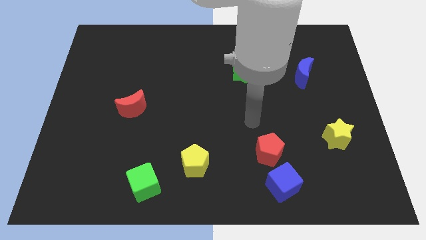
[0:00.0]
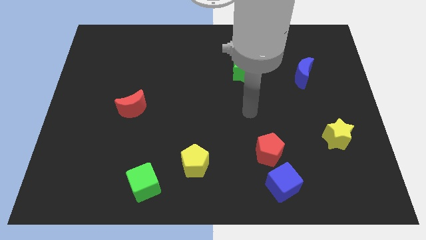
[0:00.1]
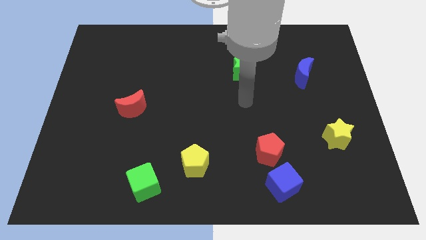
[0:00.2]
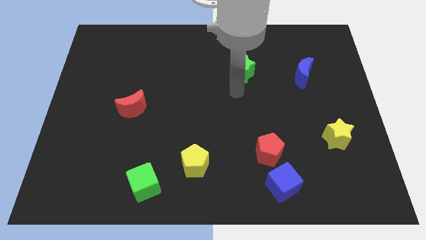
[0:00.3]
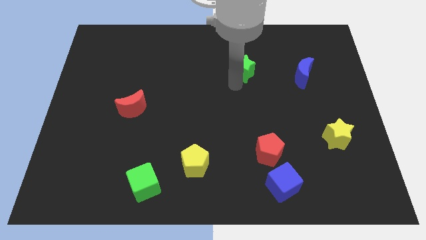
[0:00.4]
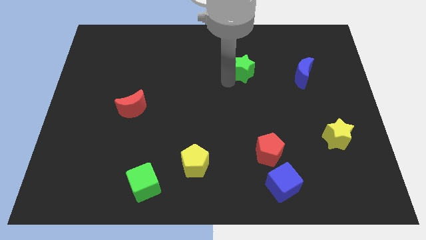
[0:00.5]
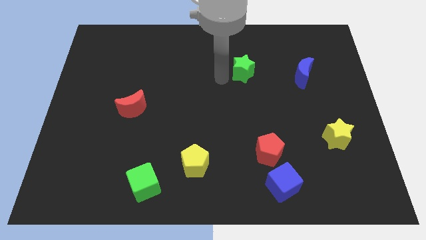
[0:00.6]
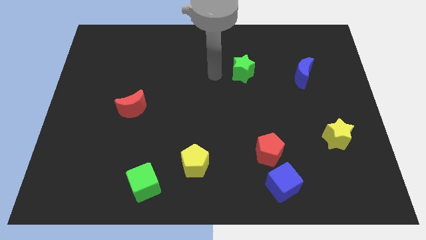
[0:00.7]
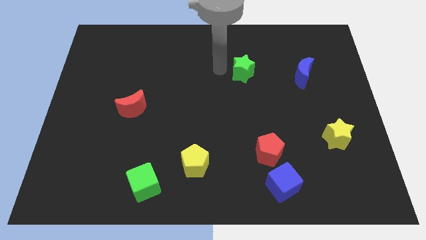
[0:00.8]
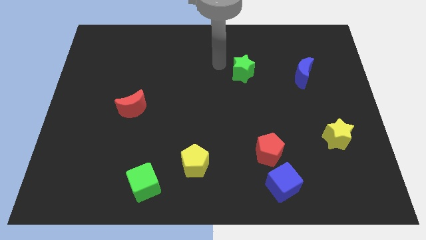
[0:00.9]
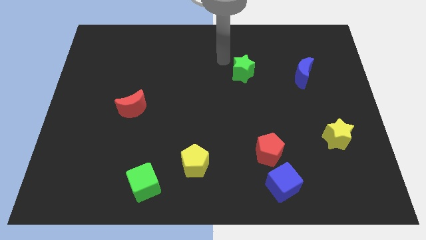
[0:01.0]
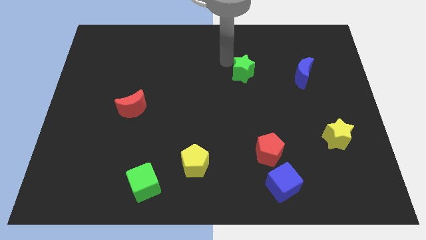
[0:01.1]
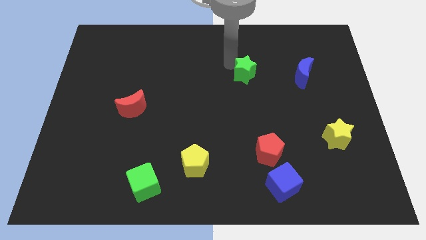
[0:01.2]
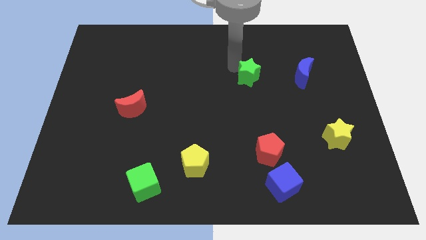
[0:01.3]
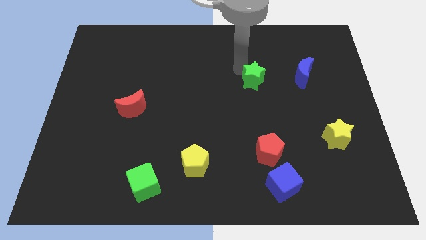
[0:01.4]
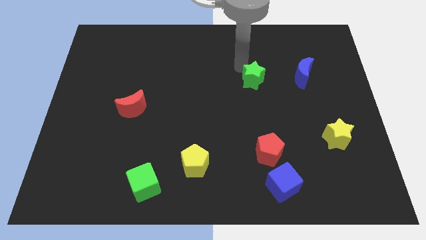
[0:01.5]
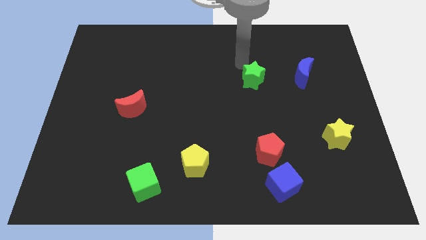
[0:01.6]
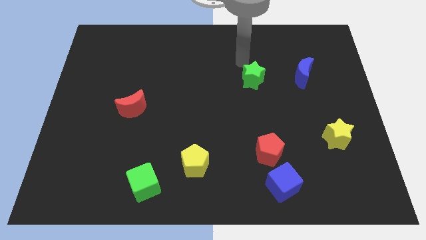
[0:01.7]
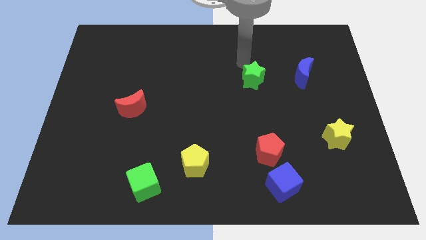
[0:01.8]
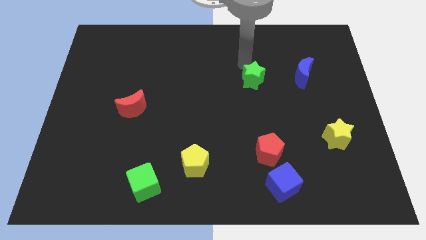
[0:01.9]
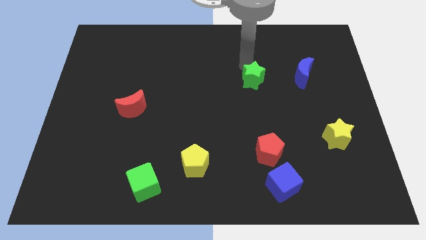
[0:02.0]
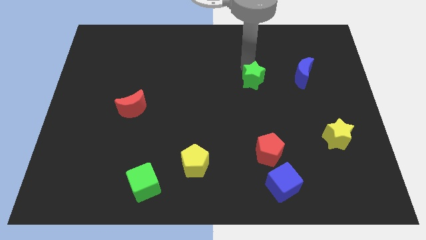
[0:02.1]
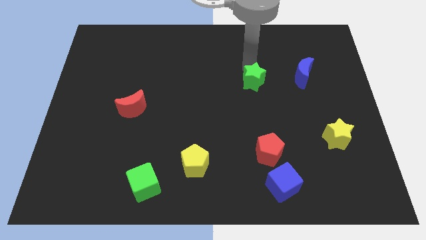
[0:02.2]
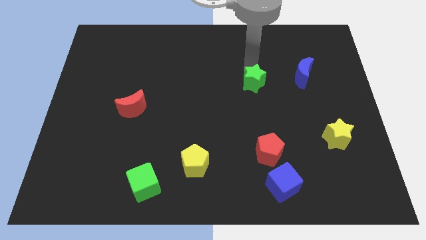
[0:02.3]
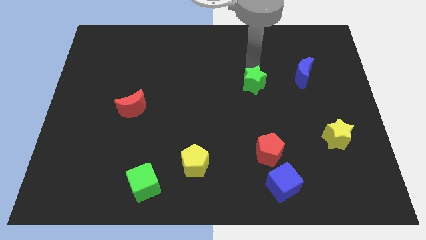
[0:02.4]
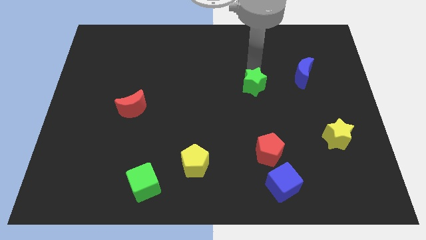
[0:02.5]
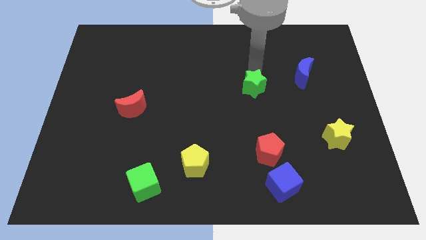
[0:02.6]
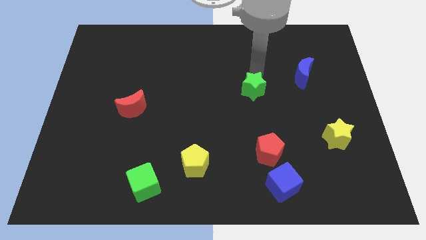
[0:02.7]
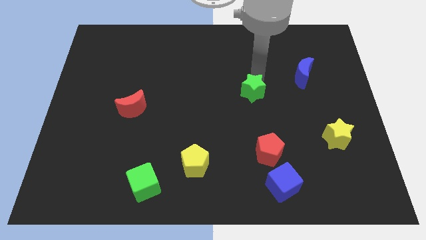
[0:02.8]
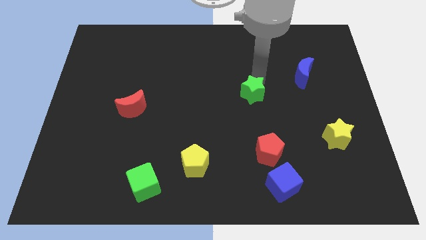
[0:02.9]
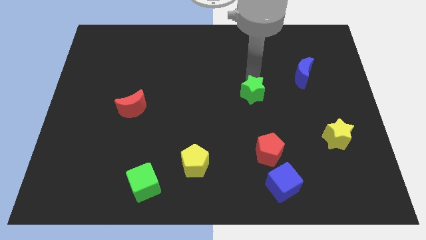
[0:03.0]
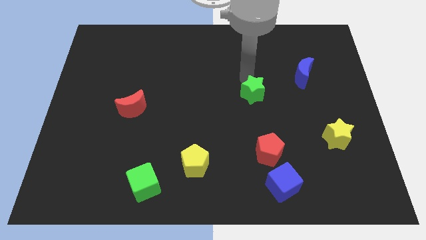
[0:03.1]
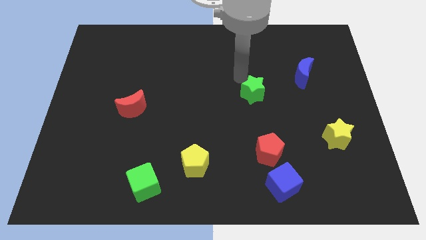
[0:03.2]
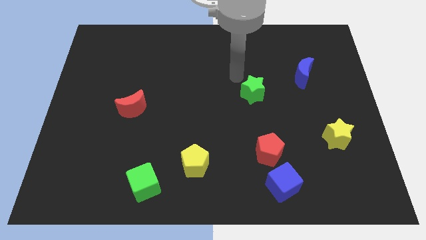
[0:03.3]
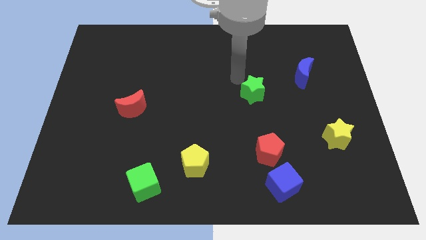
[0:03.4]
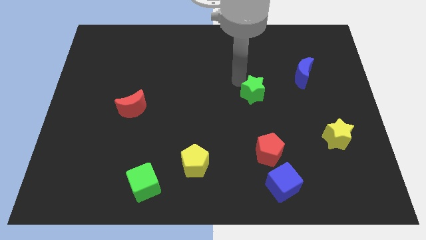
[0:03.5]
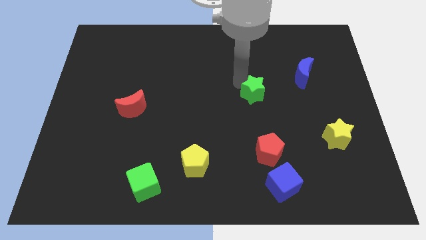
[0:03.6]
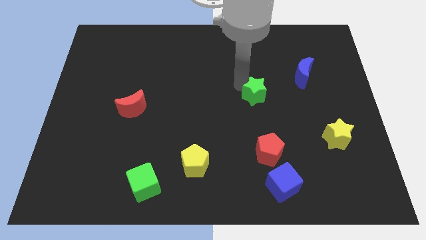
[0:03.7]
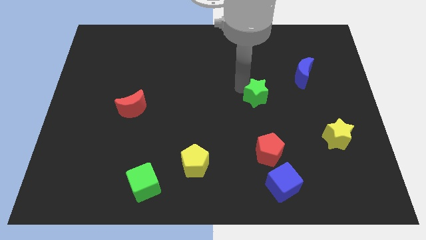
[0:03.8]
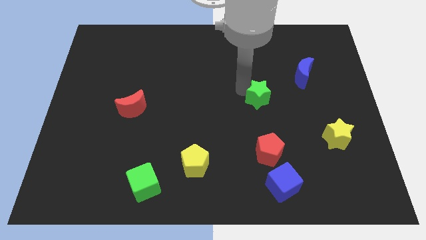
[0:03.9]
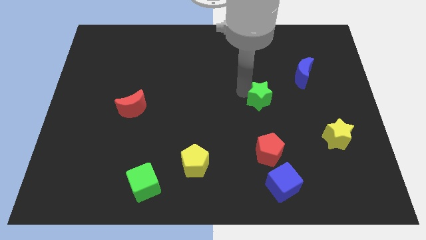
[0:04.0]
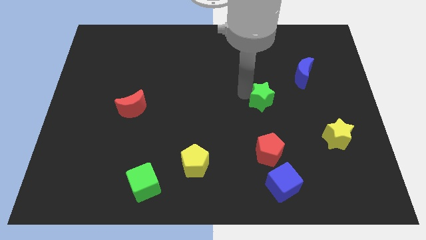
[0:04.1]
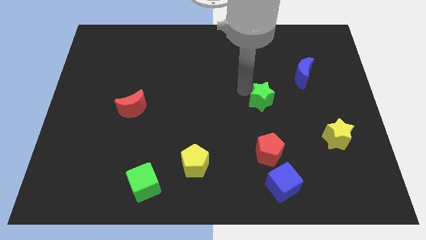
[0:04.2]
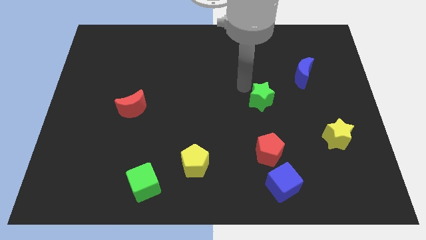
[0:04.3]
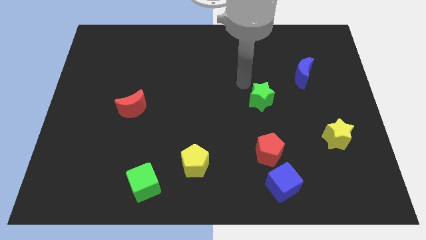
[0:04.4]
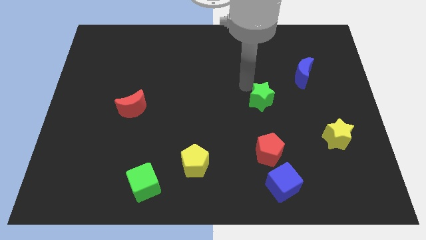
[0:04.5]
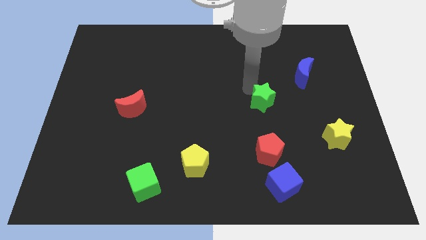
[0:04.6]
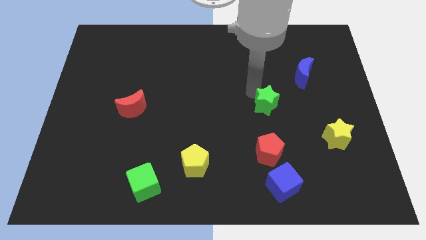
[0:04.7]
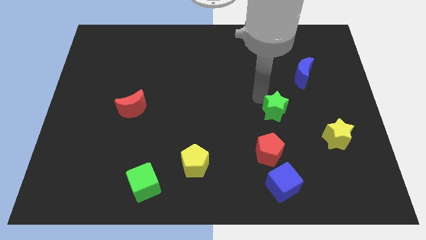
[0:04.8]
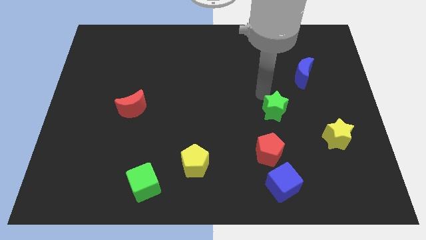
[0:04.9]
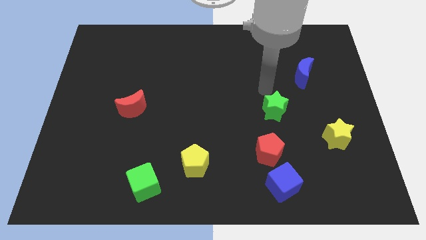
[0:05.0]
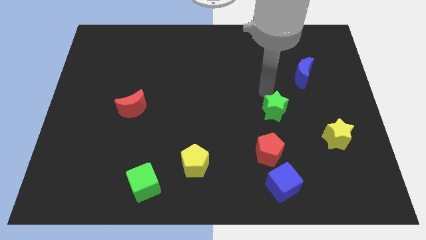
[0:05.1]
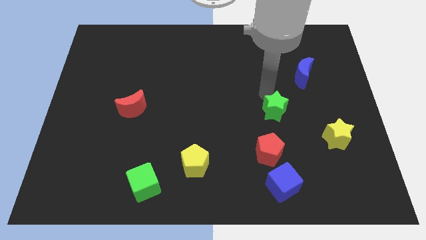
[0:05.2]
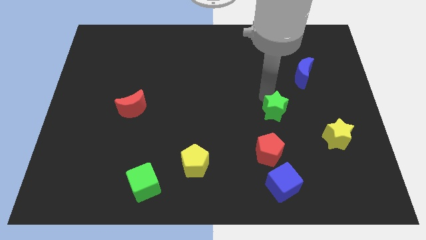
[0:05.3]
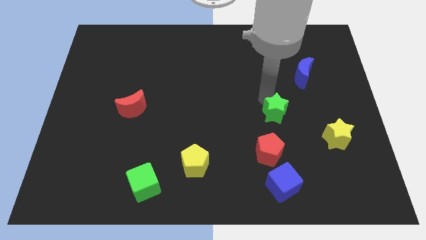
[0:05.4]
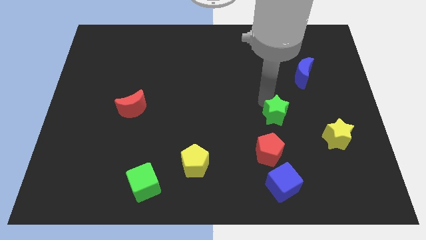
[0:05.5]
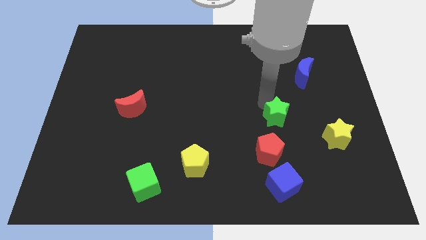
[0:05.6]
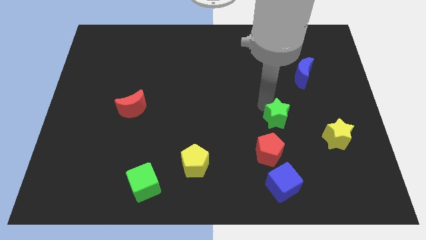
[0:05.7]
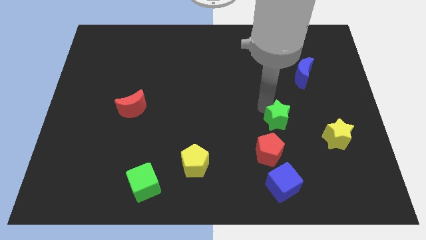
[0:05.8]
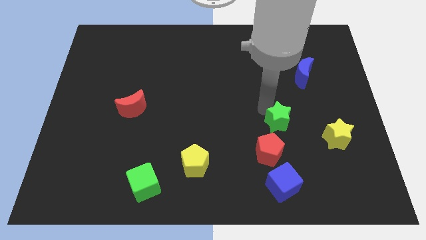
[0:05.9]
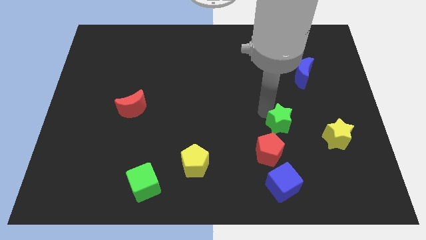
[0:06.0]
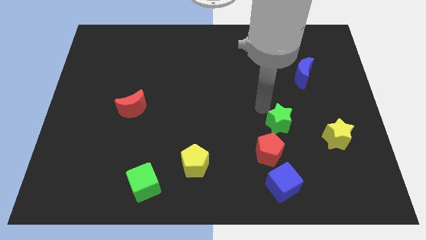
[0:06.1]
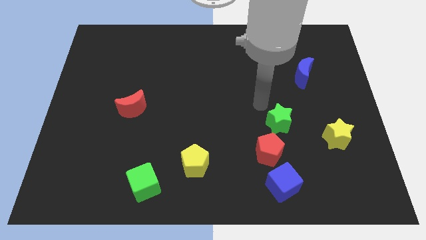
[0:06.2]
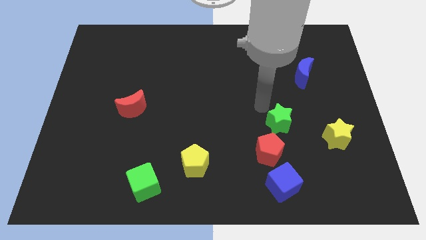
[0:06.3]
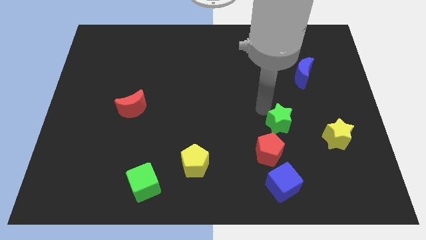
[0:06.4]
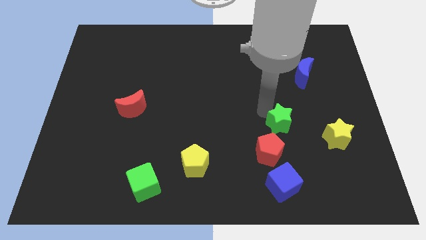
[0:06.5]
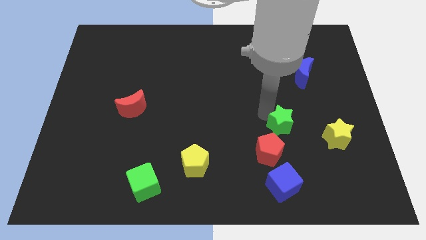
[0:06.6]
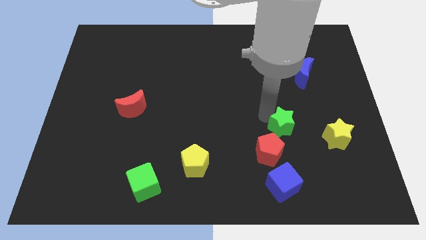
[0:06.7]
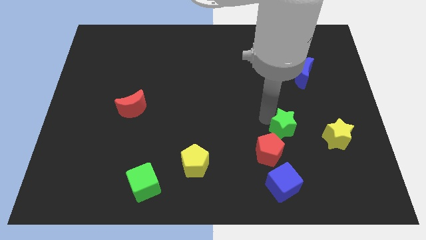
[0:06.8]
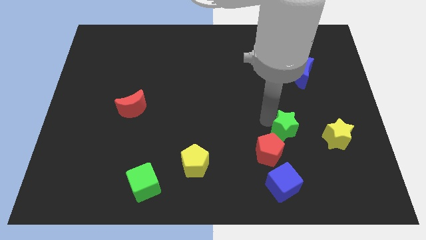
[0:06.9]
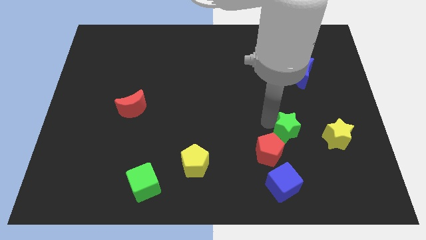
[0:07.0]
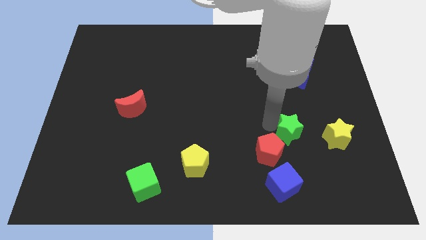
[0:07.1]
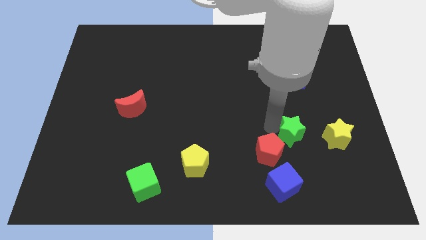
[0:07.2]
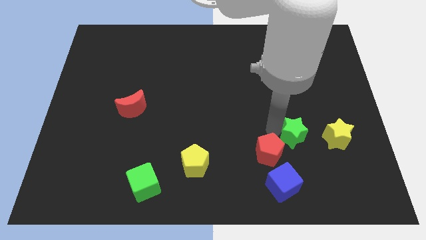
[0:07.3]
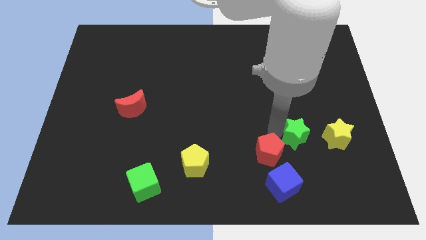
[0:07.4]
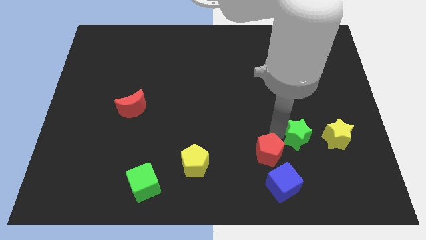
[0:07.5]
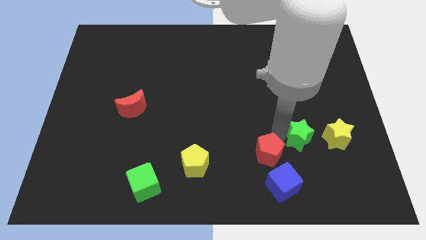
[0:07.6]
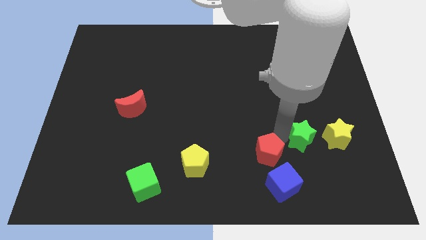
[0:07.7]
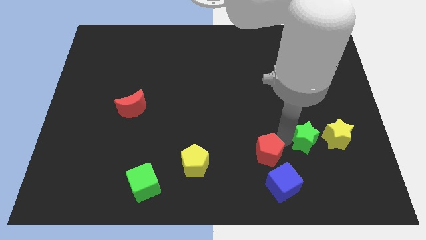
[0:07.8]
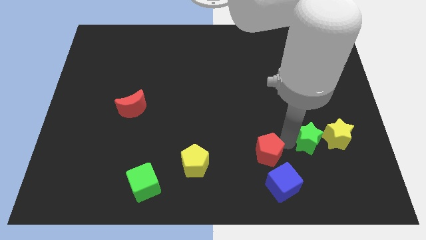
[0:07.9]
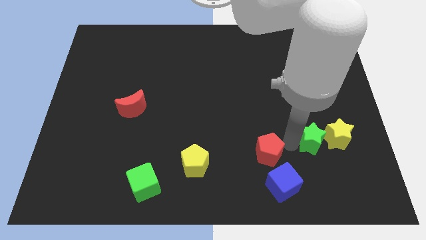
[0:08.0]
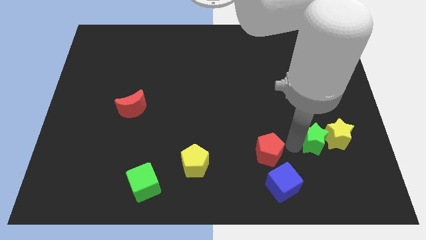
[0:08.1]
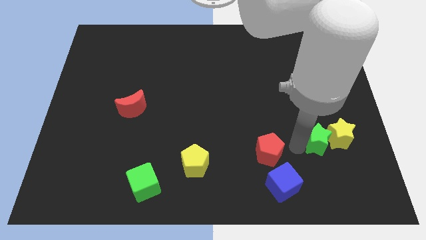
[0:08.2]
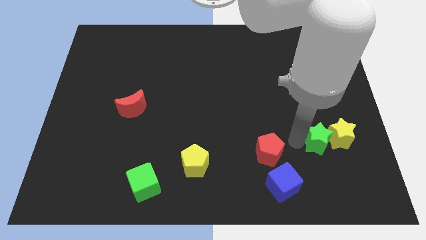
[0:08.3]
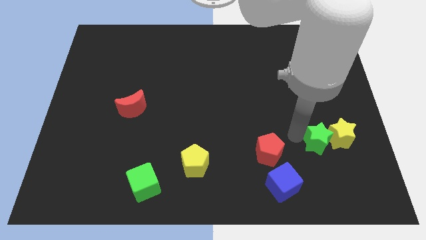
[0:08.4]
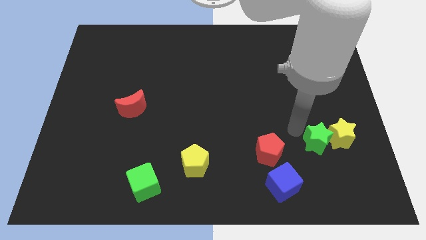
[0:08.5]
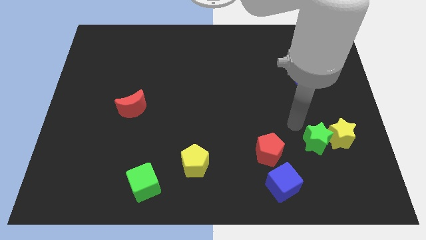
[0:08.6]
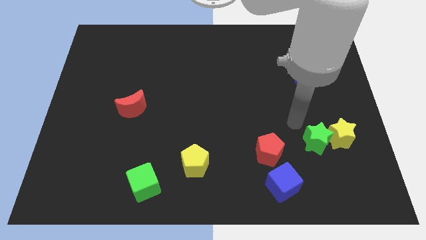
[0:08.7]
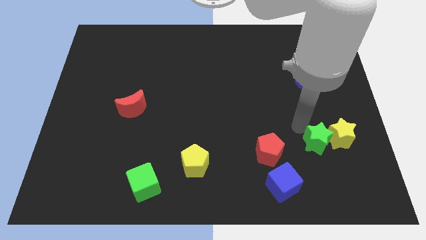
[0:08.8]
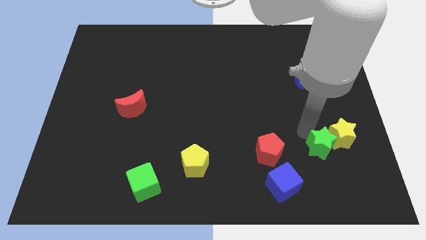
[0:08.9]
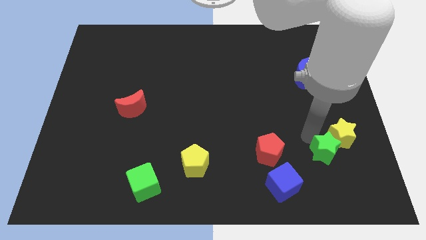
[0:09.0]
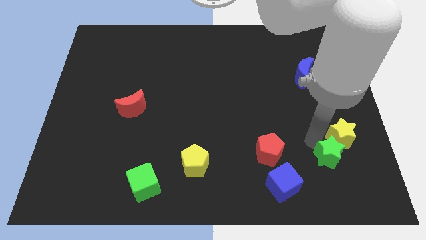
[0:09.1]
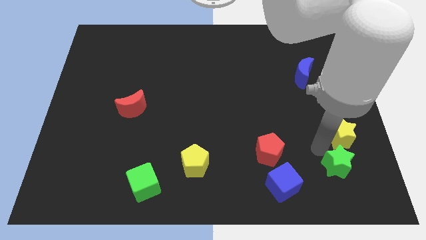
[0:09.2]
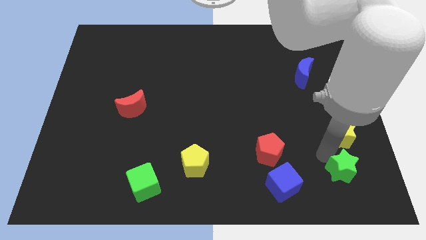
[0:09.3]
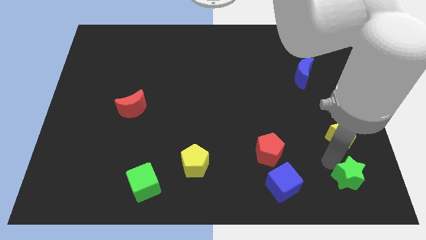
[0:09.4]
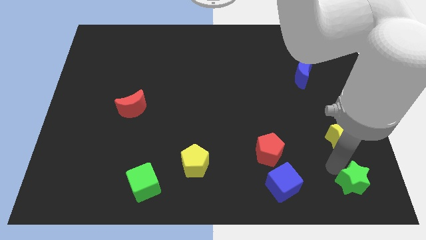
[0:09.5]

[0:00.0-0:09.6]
put the green star to the bottom right
